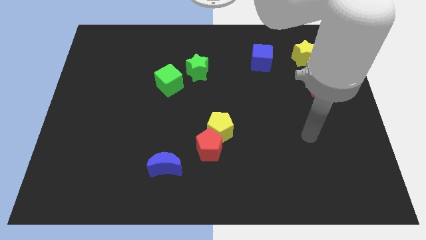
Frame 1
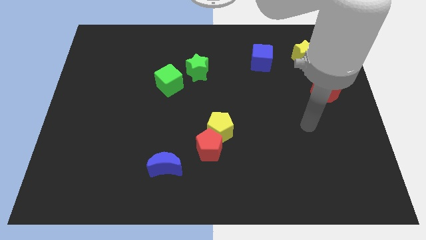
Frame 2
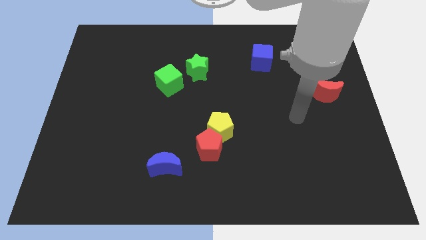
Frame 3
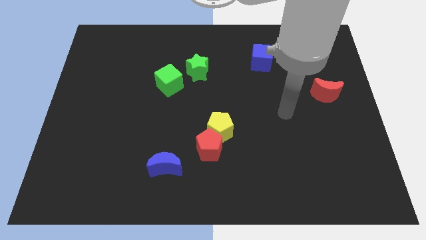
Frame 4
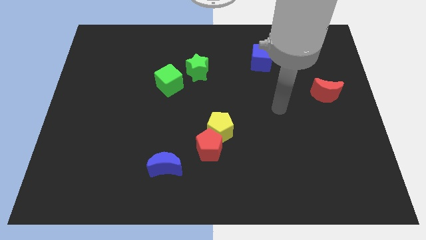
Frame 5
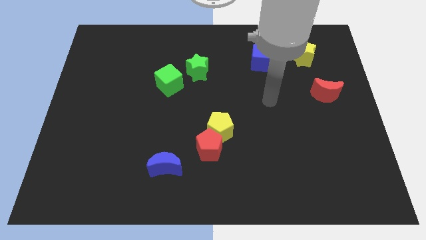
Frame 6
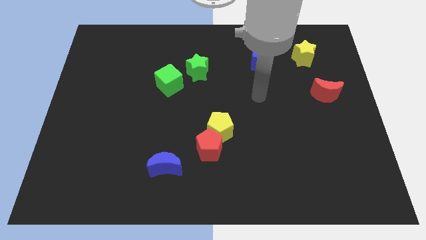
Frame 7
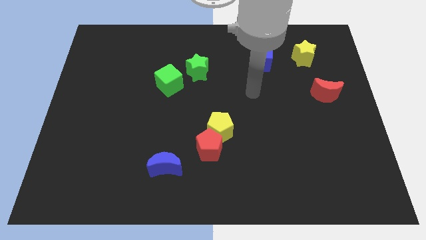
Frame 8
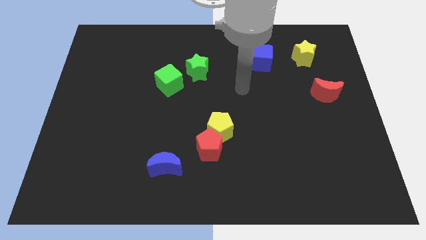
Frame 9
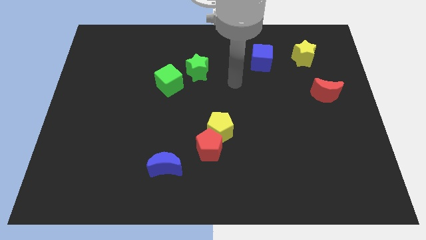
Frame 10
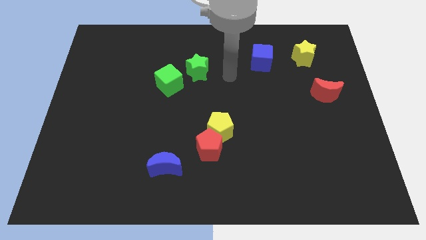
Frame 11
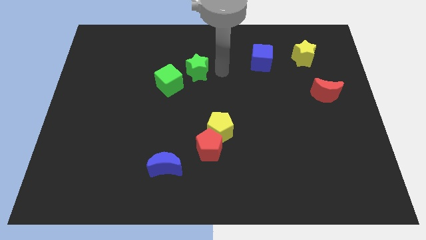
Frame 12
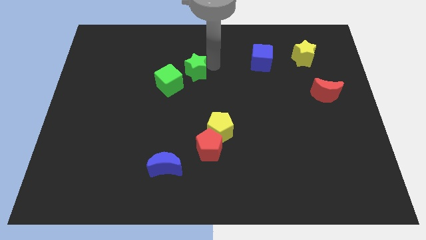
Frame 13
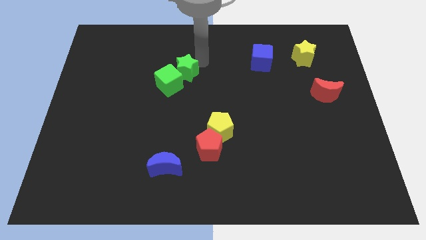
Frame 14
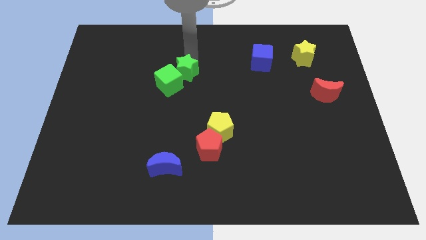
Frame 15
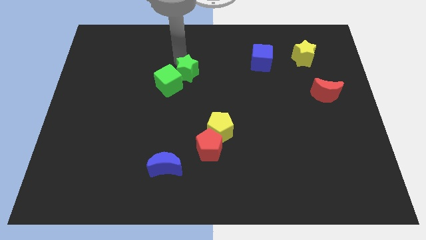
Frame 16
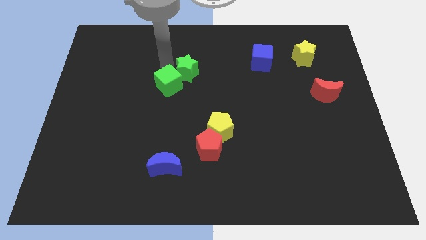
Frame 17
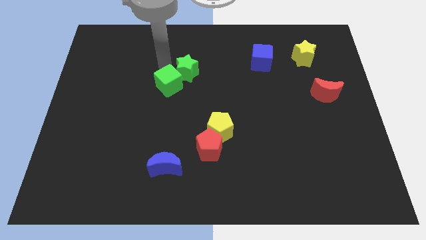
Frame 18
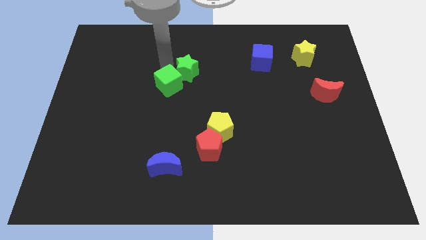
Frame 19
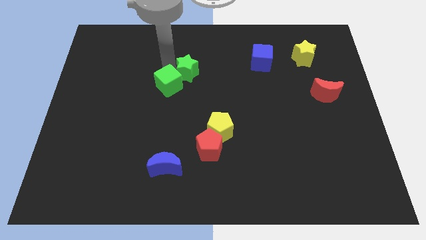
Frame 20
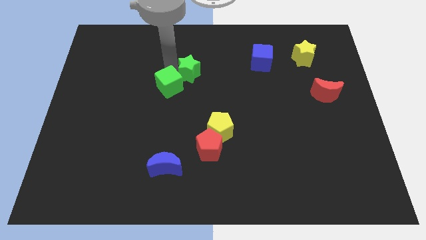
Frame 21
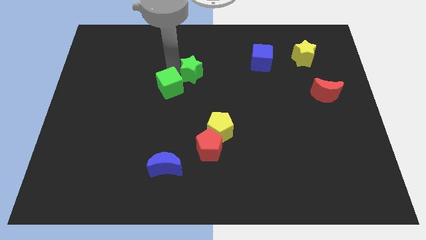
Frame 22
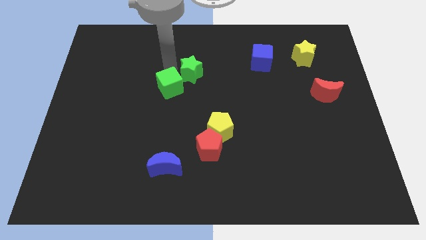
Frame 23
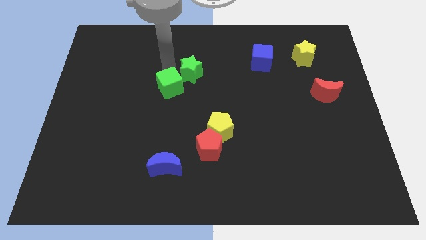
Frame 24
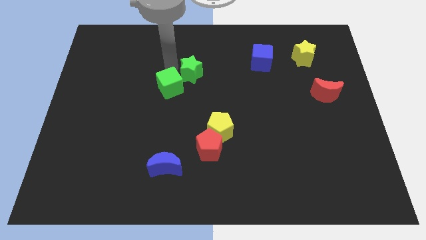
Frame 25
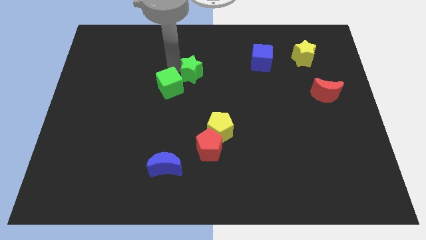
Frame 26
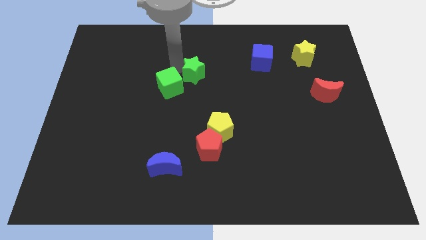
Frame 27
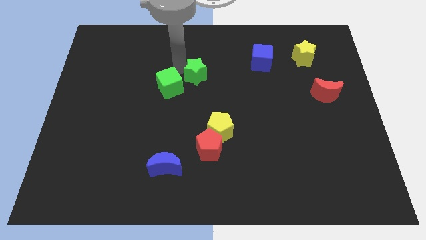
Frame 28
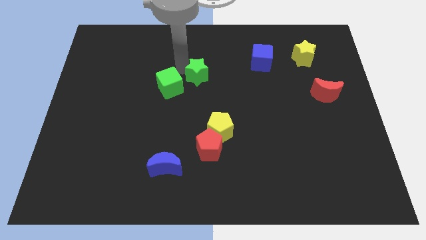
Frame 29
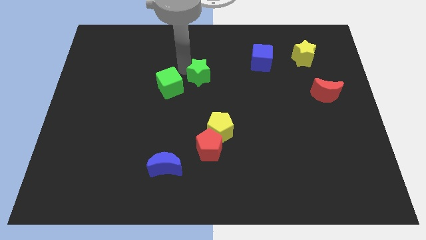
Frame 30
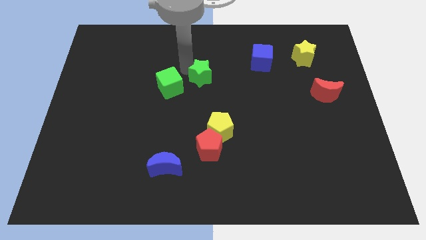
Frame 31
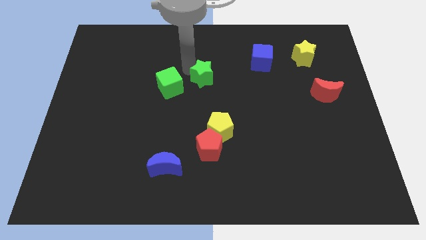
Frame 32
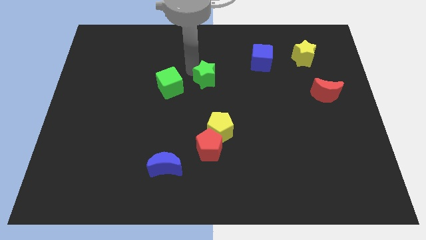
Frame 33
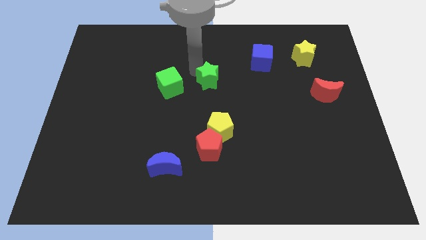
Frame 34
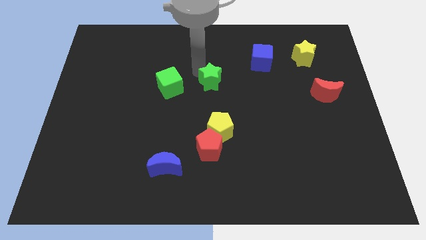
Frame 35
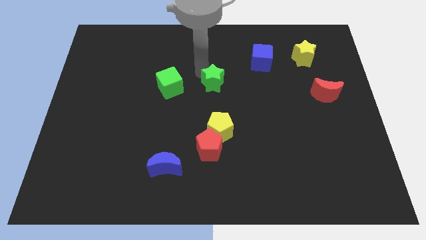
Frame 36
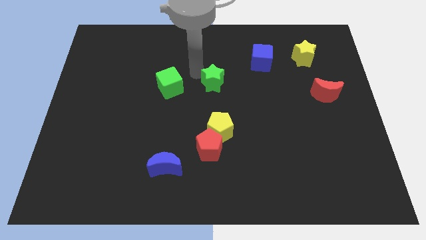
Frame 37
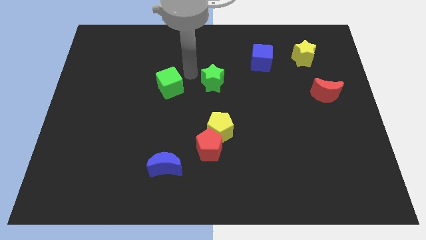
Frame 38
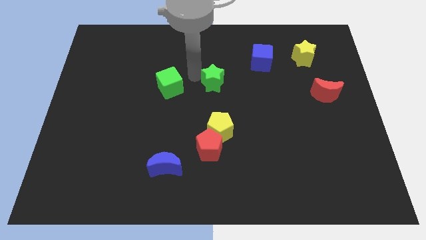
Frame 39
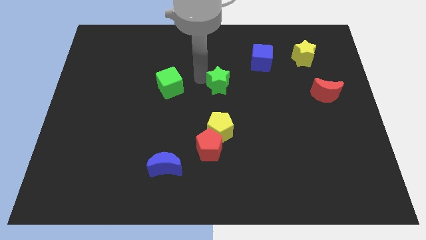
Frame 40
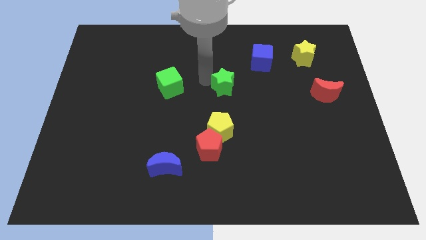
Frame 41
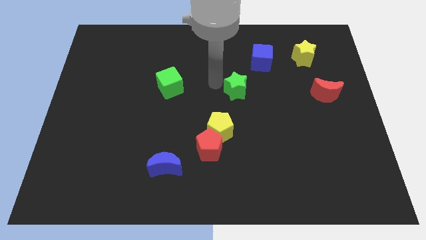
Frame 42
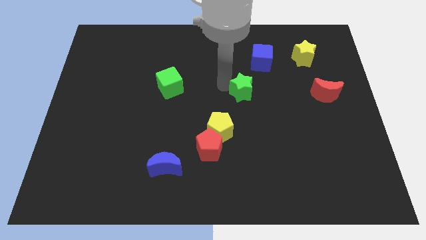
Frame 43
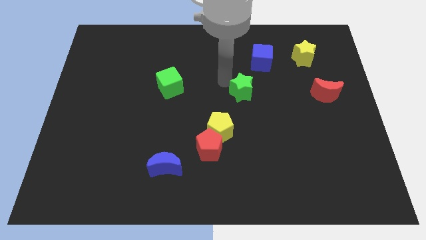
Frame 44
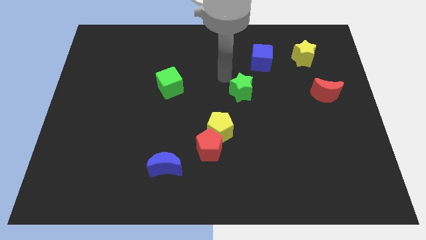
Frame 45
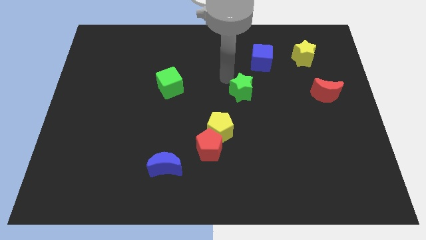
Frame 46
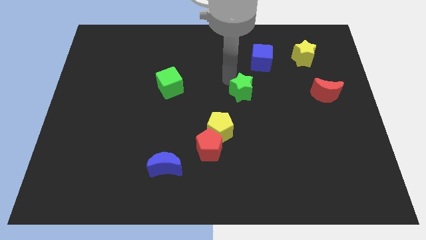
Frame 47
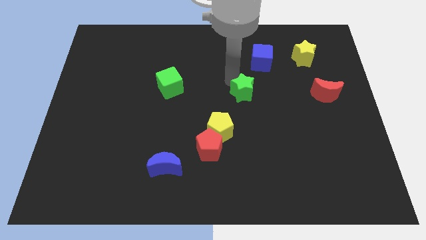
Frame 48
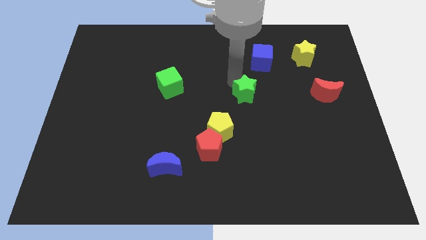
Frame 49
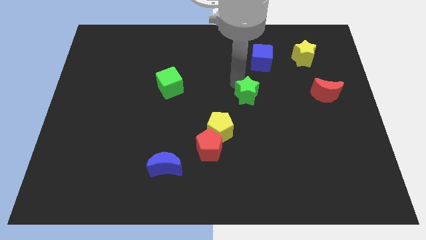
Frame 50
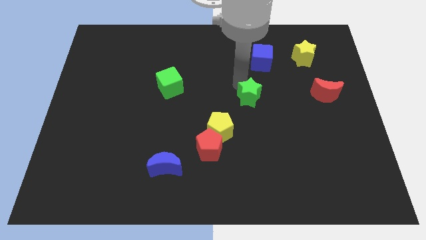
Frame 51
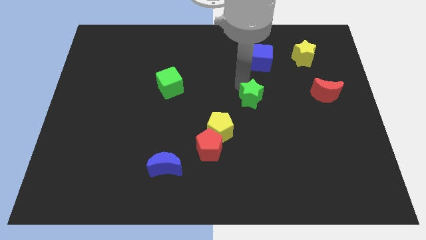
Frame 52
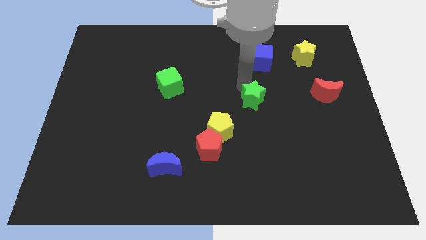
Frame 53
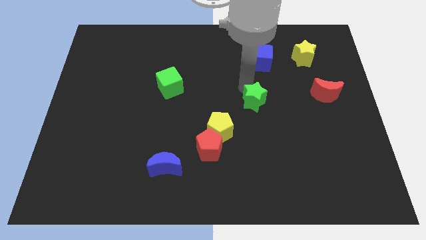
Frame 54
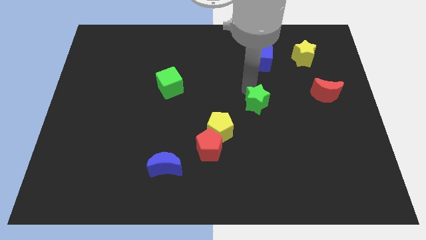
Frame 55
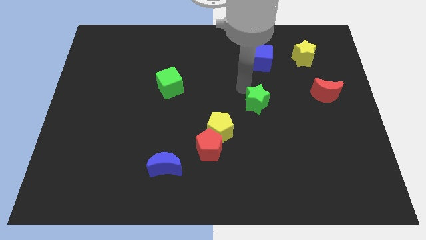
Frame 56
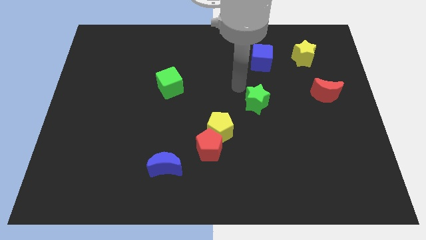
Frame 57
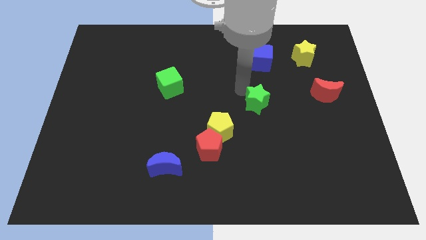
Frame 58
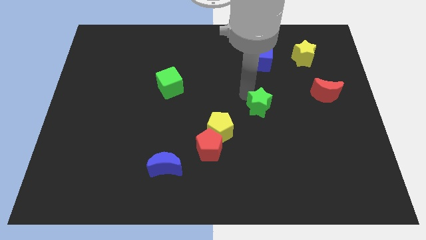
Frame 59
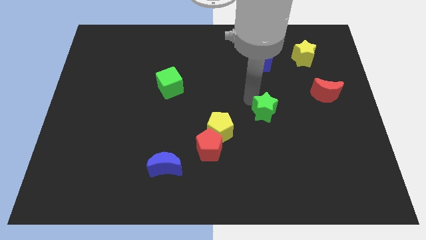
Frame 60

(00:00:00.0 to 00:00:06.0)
push the green star diagonally downwards and to the right

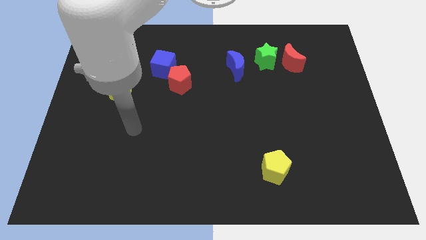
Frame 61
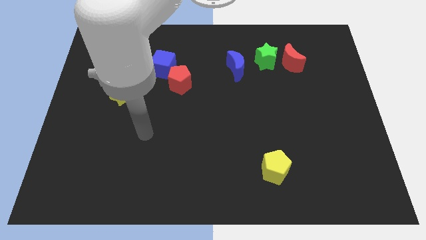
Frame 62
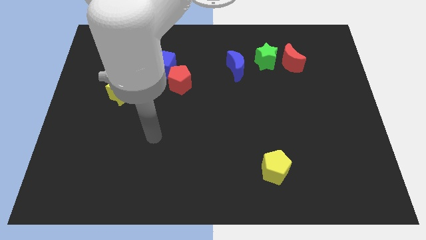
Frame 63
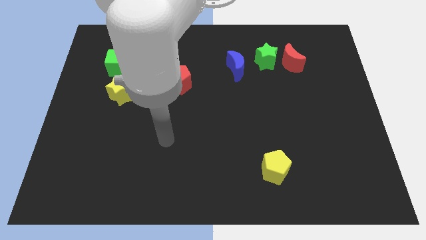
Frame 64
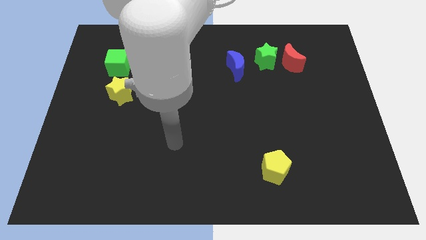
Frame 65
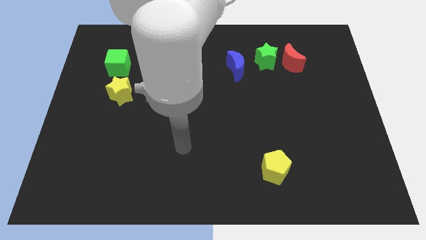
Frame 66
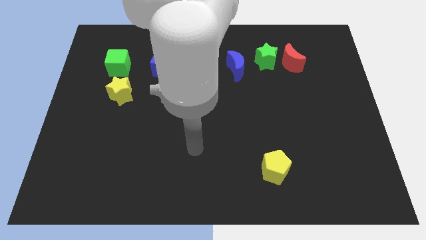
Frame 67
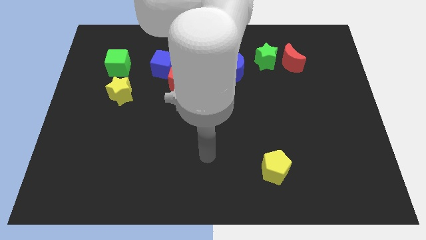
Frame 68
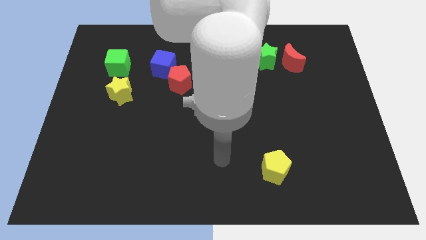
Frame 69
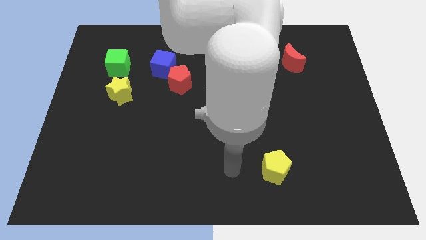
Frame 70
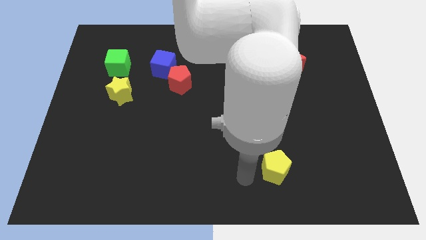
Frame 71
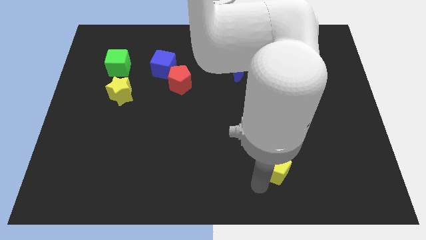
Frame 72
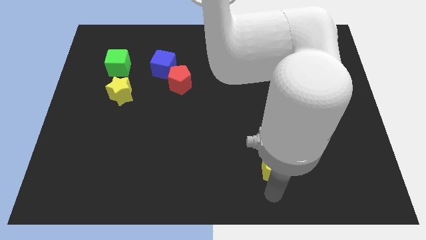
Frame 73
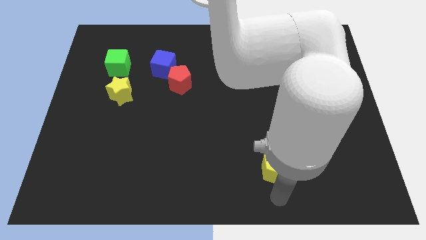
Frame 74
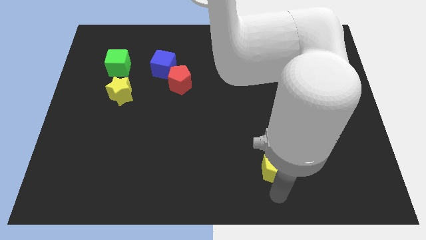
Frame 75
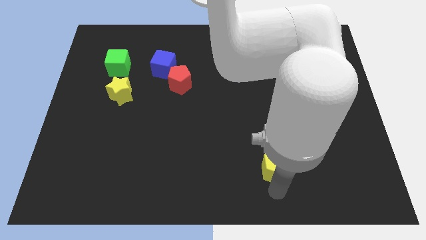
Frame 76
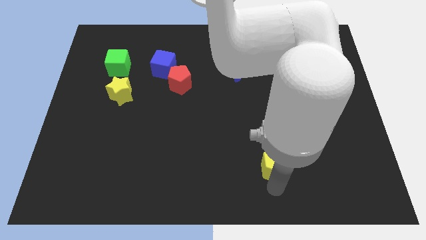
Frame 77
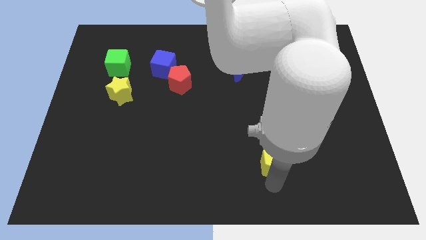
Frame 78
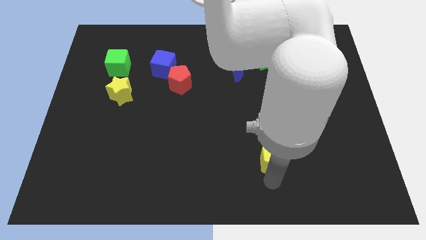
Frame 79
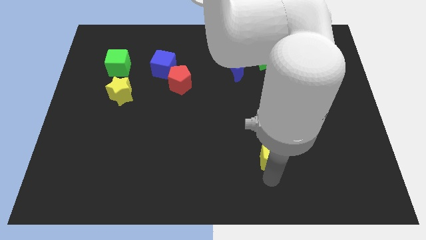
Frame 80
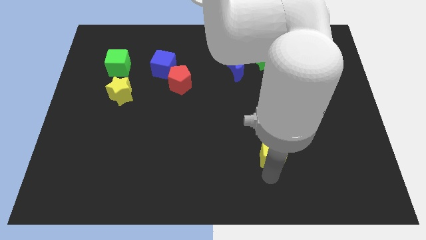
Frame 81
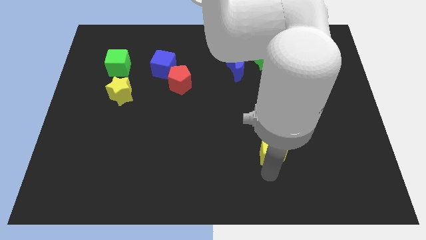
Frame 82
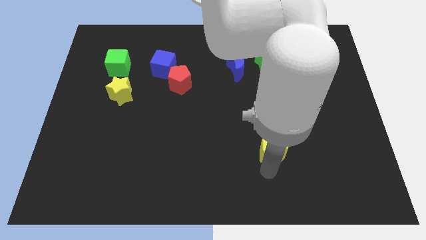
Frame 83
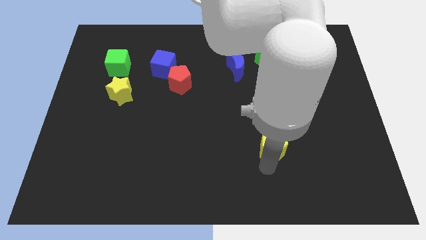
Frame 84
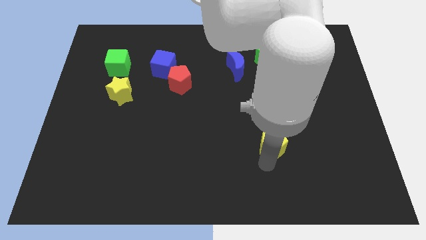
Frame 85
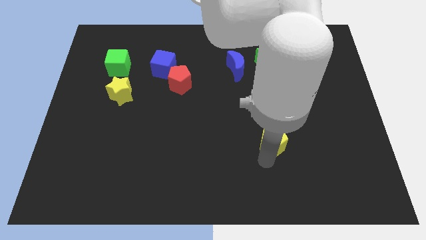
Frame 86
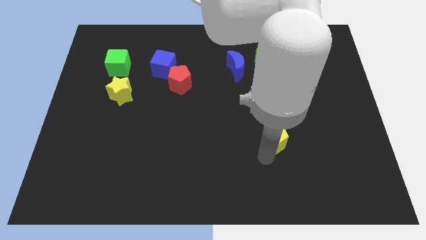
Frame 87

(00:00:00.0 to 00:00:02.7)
slightly slide the yellow pentagon upwards
